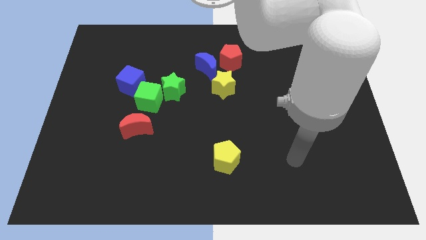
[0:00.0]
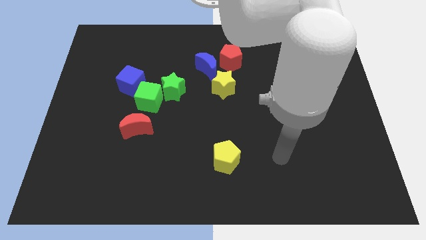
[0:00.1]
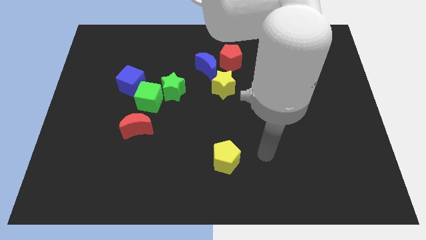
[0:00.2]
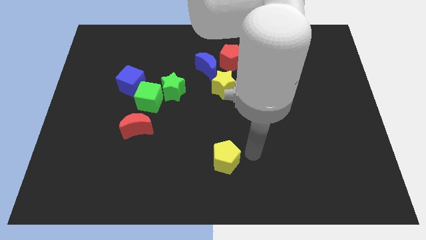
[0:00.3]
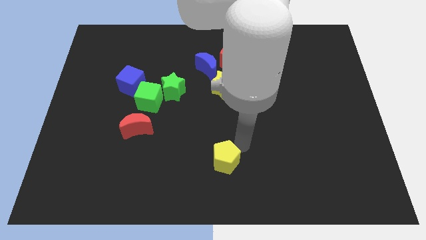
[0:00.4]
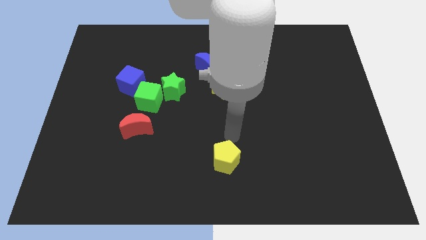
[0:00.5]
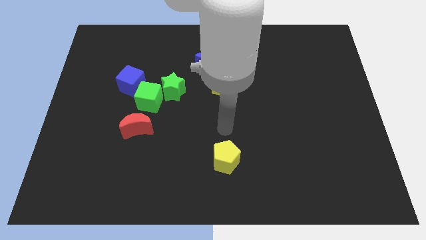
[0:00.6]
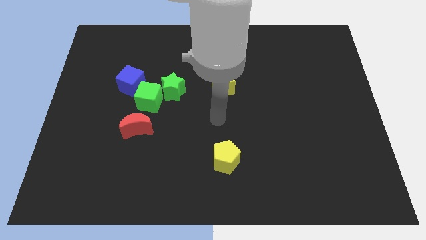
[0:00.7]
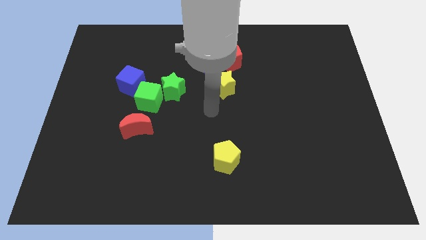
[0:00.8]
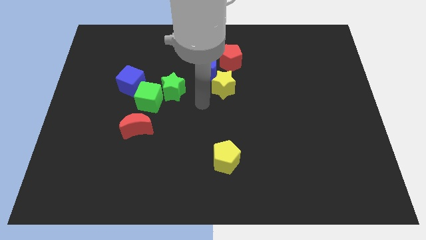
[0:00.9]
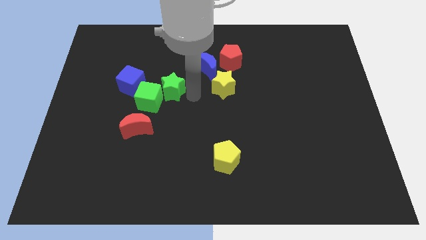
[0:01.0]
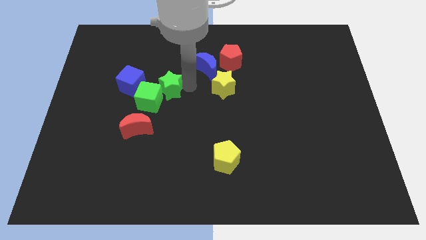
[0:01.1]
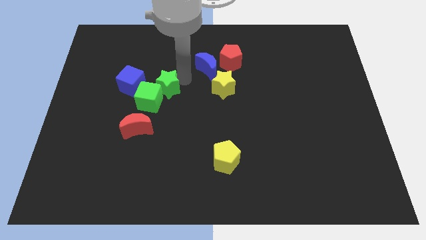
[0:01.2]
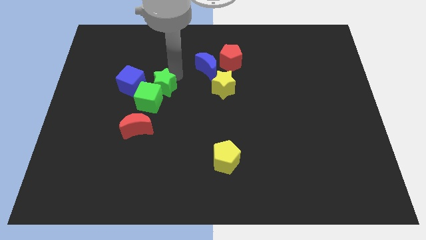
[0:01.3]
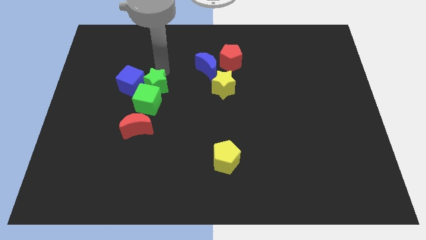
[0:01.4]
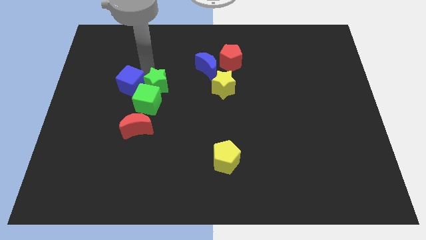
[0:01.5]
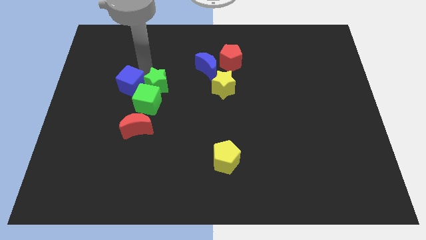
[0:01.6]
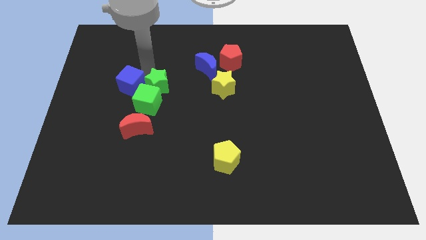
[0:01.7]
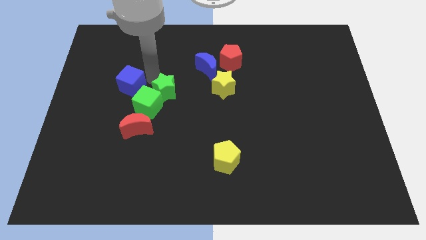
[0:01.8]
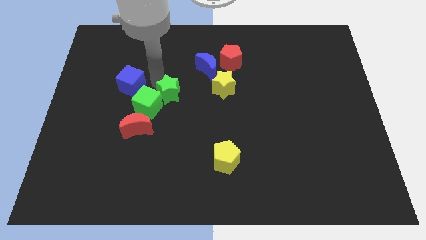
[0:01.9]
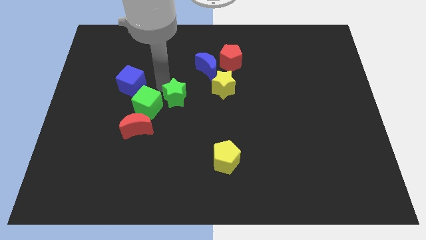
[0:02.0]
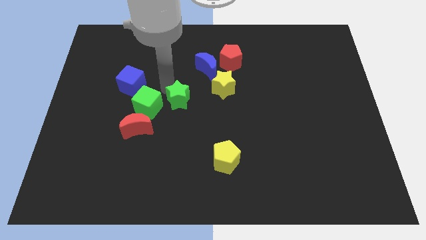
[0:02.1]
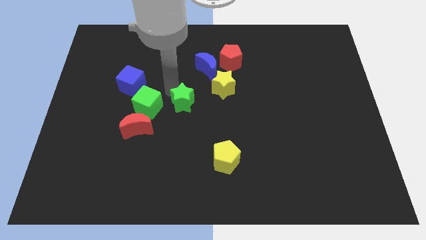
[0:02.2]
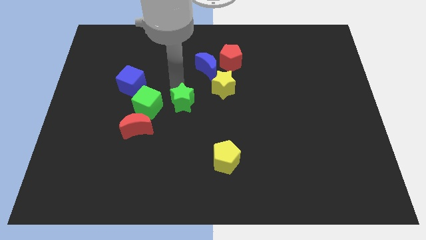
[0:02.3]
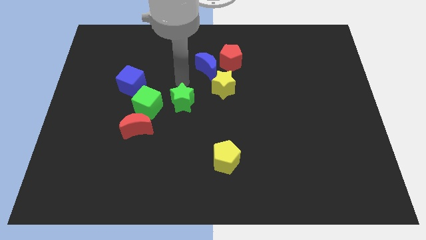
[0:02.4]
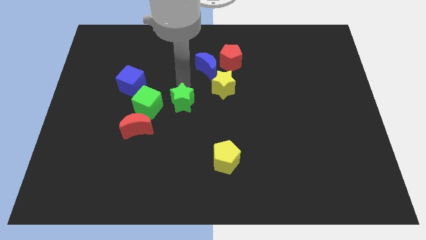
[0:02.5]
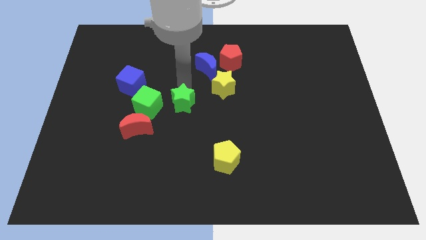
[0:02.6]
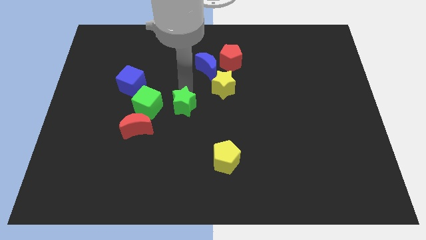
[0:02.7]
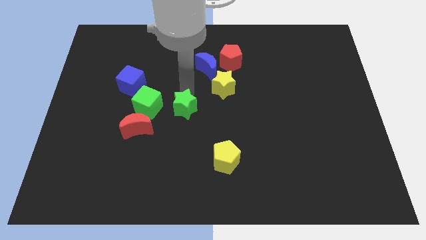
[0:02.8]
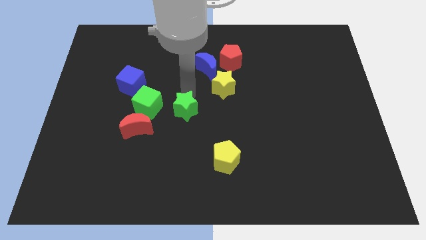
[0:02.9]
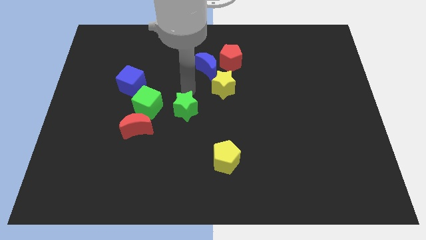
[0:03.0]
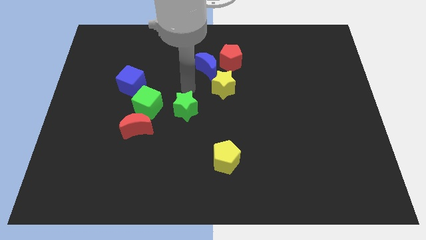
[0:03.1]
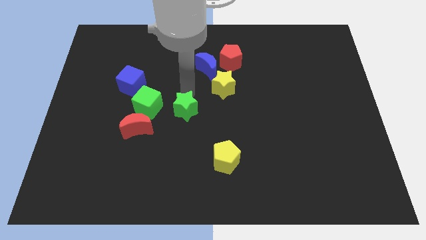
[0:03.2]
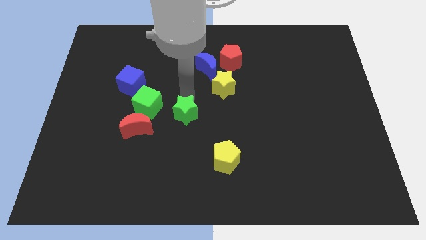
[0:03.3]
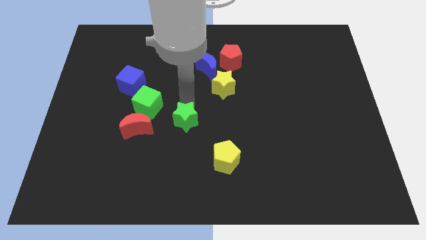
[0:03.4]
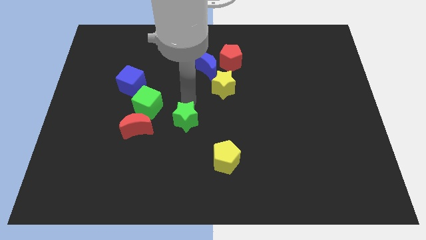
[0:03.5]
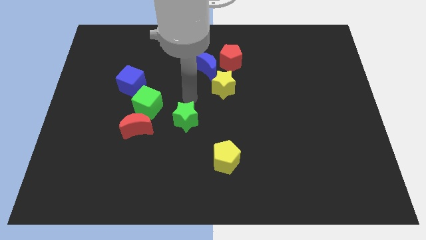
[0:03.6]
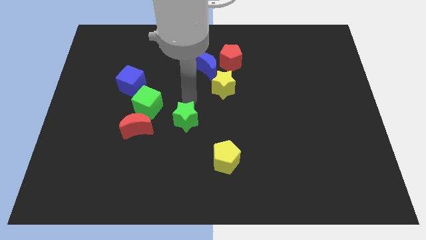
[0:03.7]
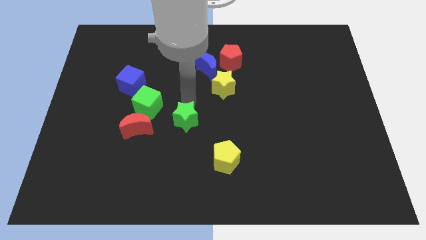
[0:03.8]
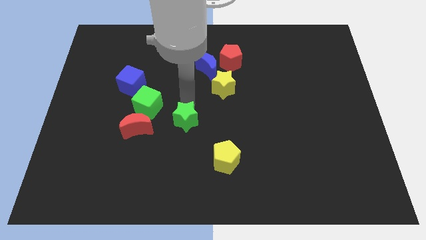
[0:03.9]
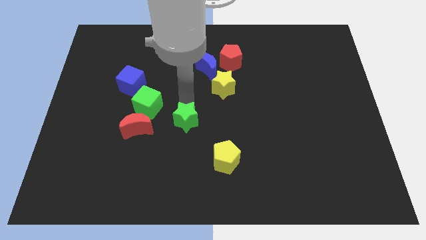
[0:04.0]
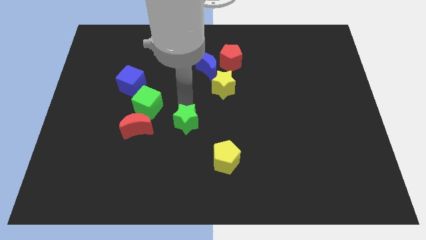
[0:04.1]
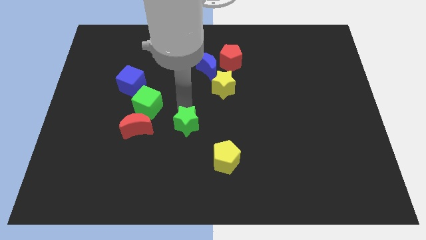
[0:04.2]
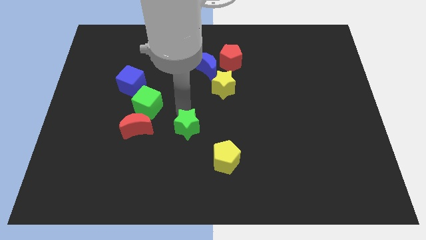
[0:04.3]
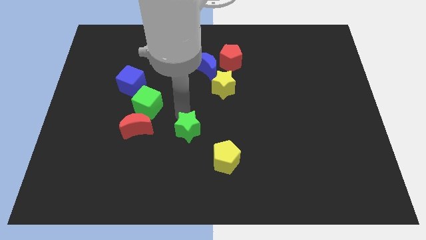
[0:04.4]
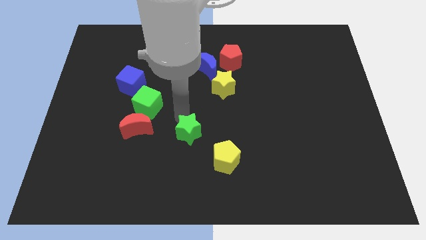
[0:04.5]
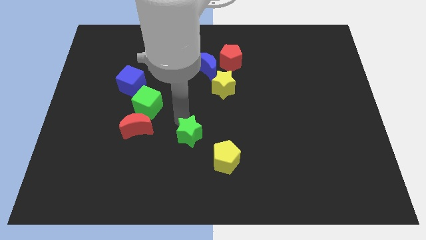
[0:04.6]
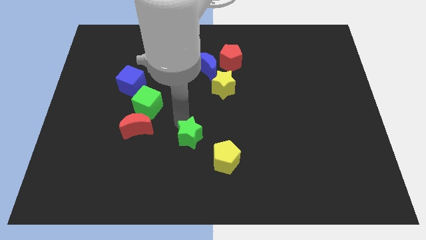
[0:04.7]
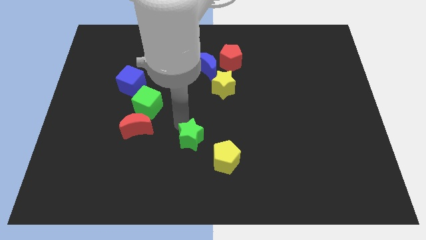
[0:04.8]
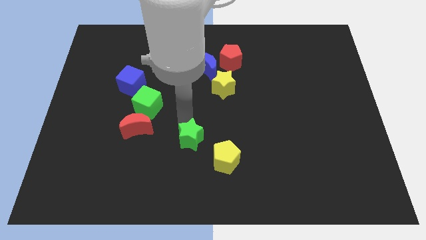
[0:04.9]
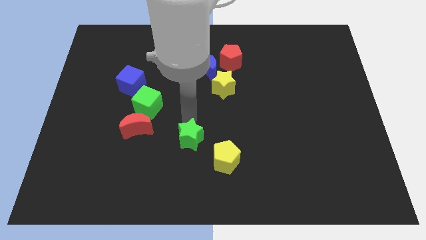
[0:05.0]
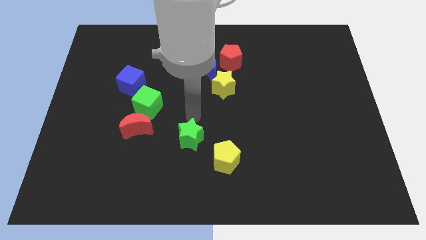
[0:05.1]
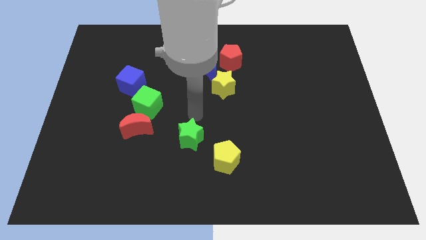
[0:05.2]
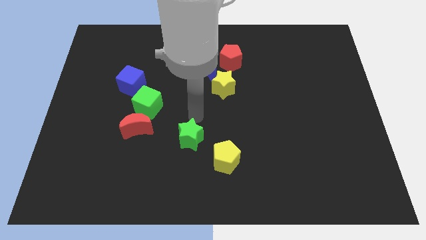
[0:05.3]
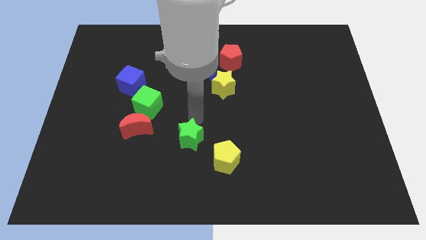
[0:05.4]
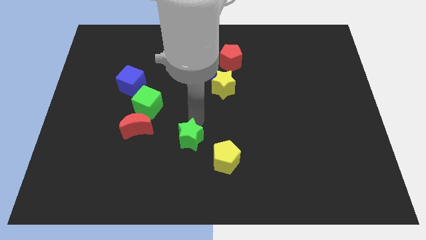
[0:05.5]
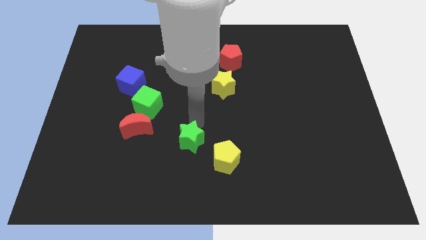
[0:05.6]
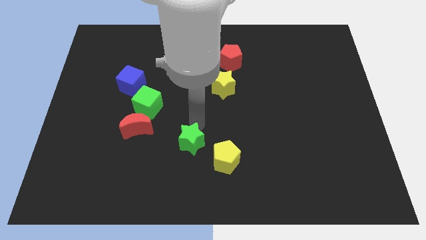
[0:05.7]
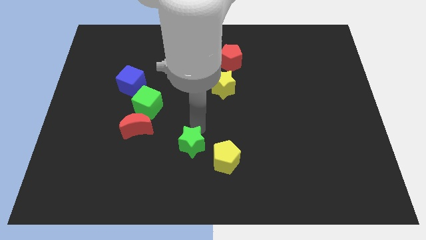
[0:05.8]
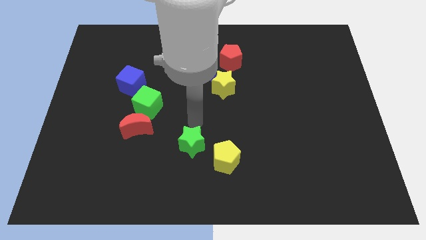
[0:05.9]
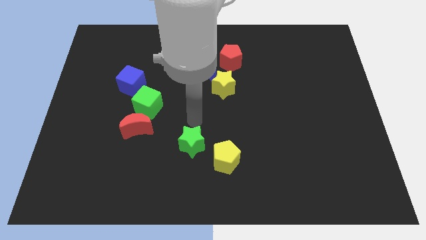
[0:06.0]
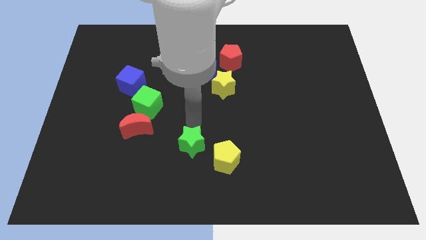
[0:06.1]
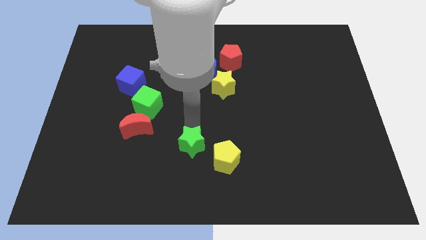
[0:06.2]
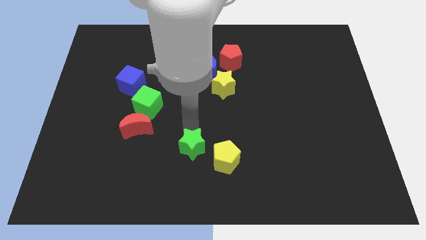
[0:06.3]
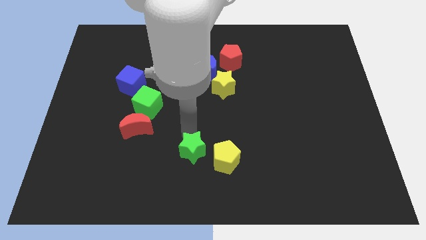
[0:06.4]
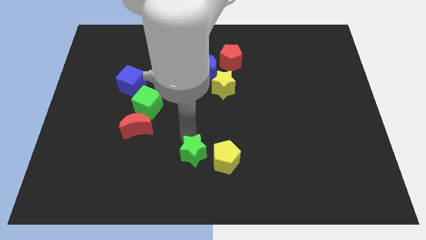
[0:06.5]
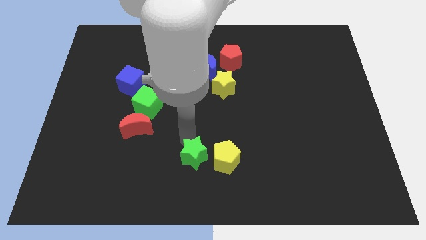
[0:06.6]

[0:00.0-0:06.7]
slide the green star to the bottom

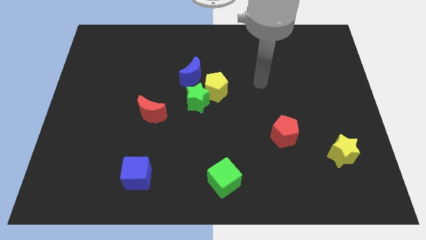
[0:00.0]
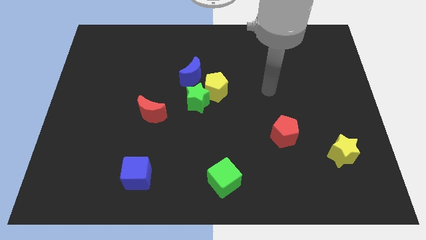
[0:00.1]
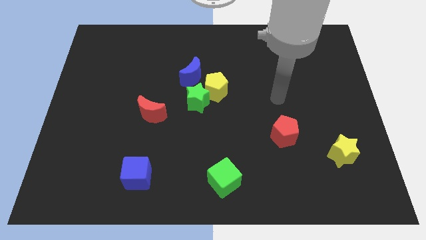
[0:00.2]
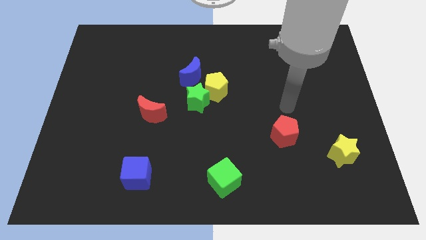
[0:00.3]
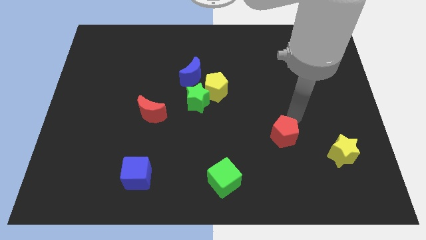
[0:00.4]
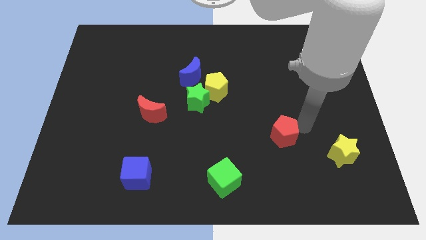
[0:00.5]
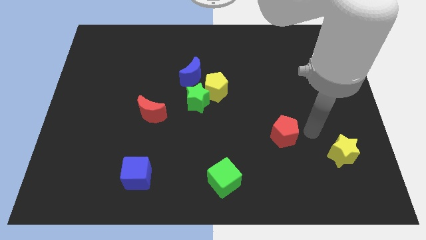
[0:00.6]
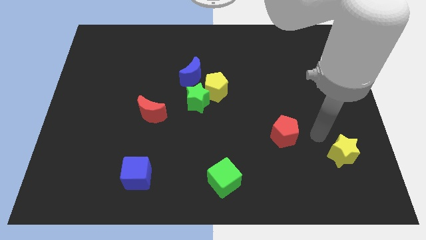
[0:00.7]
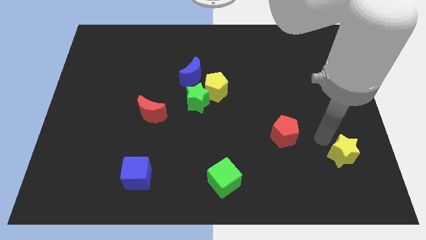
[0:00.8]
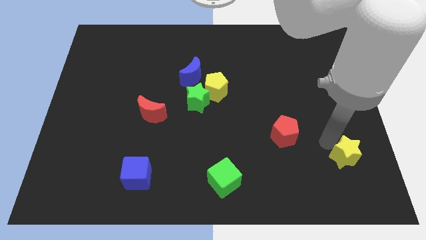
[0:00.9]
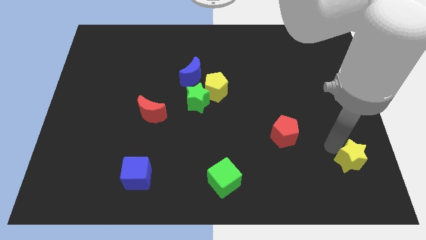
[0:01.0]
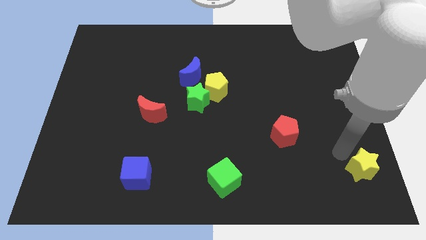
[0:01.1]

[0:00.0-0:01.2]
move the yellow star to the bottom right of the board
